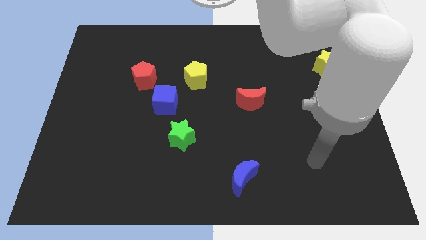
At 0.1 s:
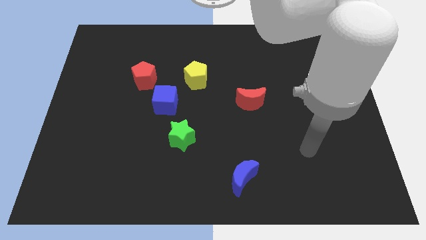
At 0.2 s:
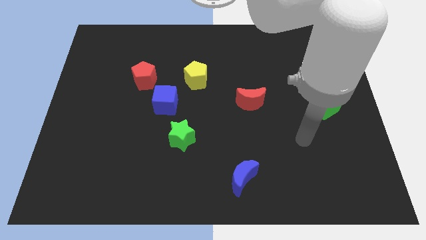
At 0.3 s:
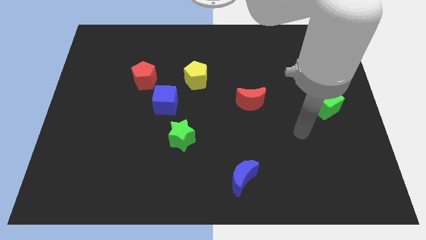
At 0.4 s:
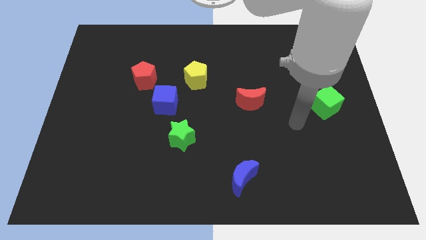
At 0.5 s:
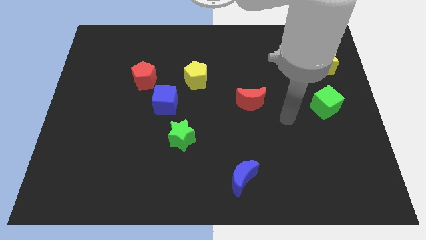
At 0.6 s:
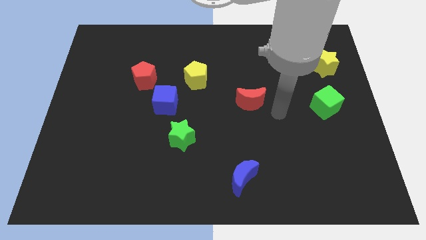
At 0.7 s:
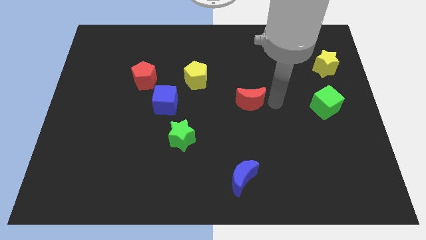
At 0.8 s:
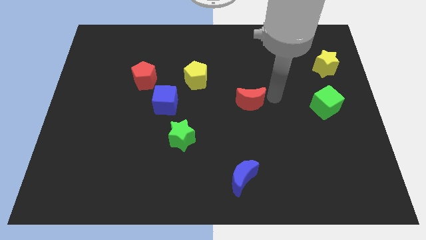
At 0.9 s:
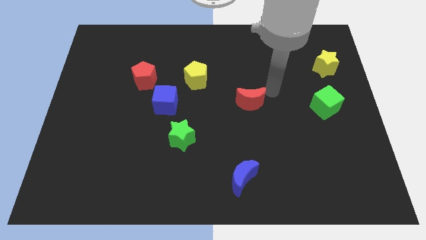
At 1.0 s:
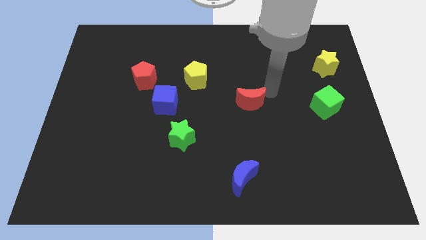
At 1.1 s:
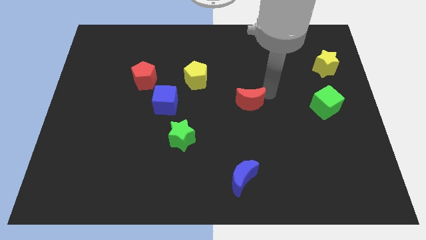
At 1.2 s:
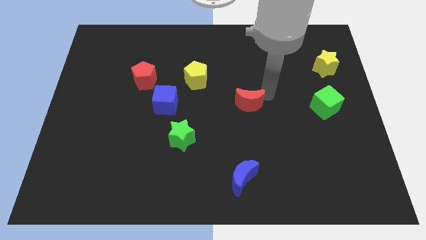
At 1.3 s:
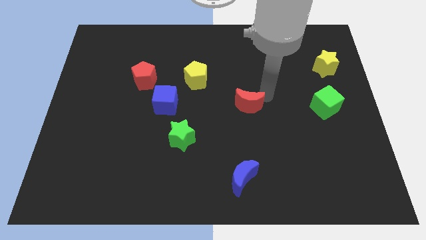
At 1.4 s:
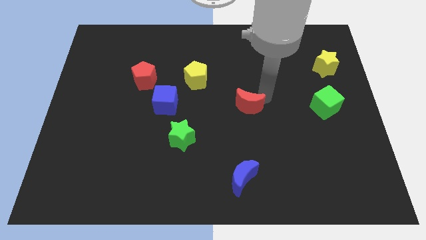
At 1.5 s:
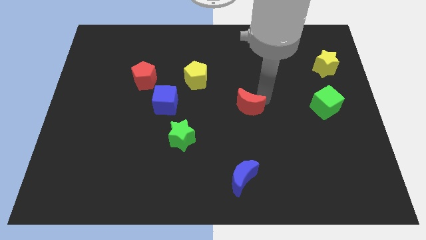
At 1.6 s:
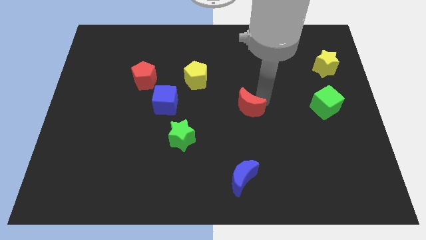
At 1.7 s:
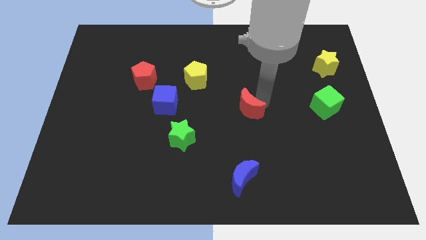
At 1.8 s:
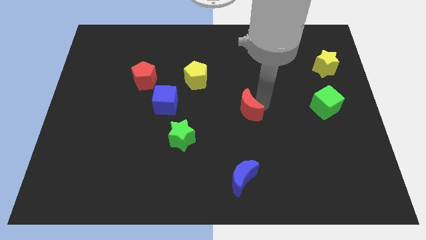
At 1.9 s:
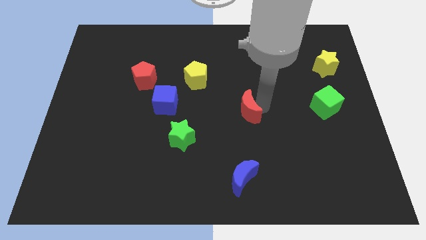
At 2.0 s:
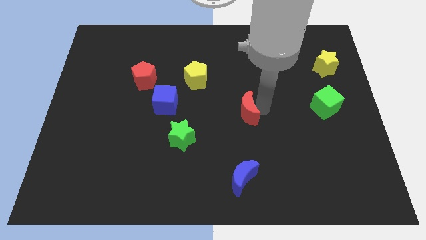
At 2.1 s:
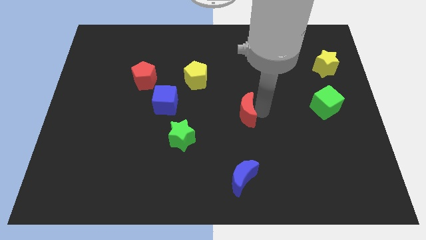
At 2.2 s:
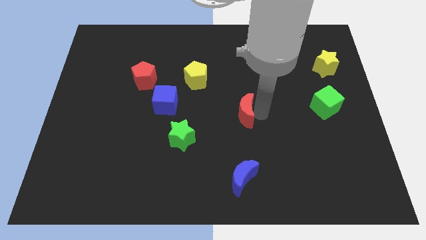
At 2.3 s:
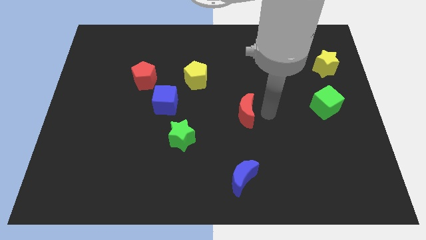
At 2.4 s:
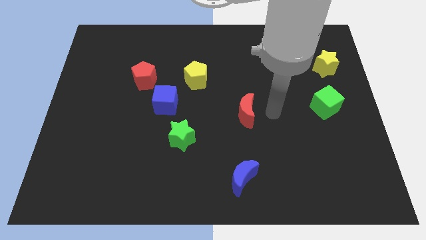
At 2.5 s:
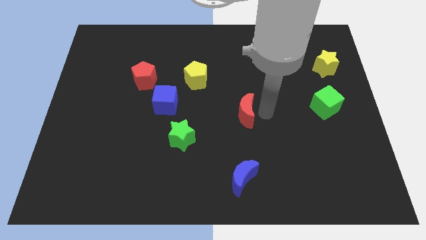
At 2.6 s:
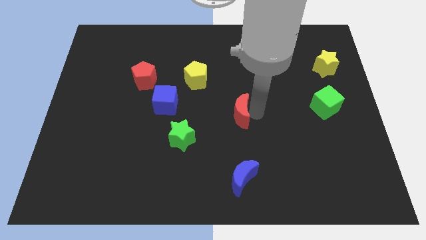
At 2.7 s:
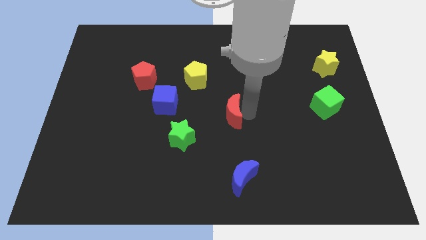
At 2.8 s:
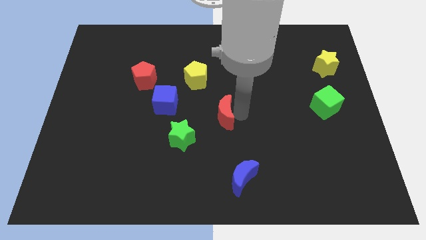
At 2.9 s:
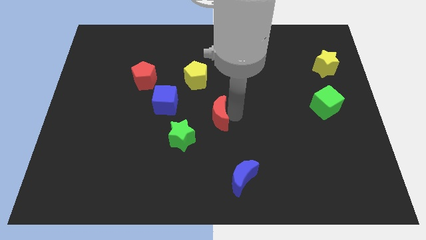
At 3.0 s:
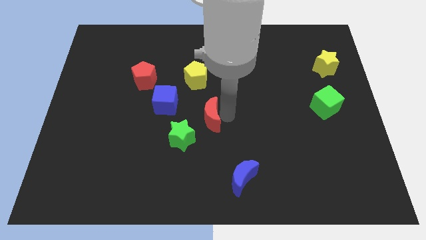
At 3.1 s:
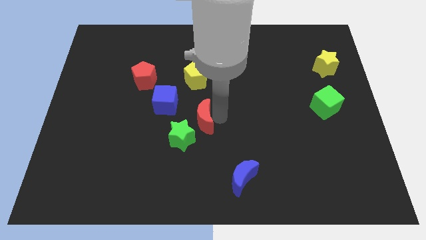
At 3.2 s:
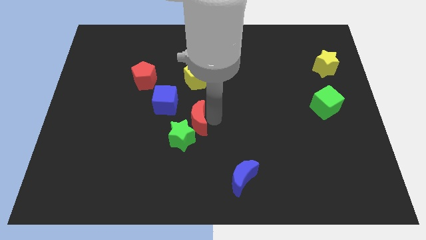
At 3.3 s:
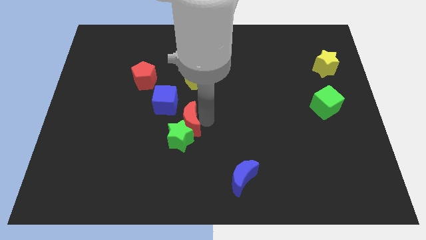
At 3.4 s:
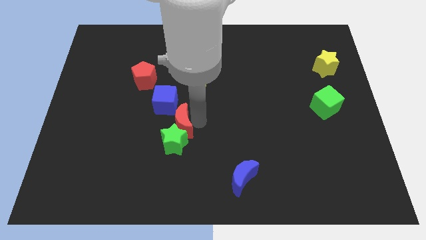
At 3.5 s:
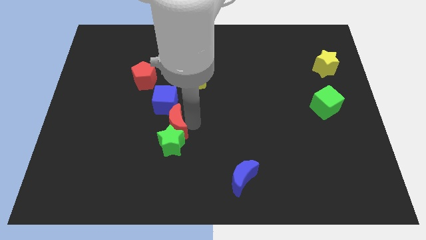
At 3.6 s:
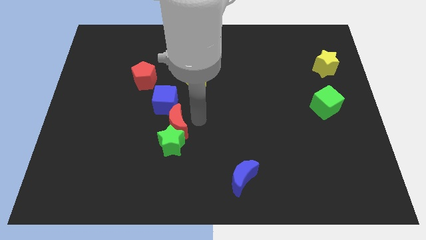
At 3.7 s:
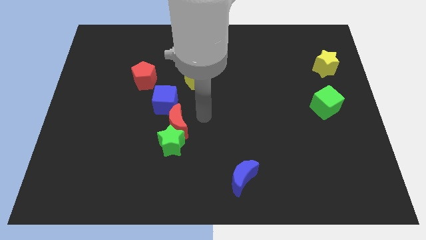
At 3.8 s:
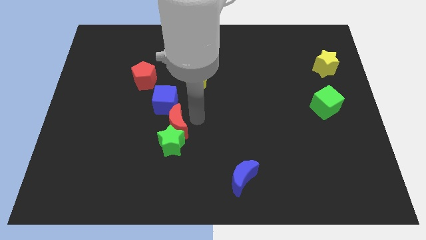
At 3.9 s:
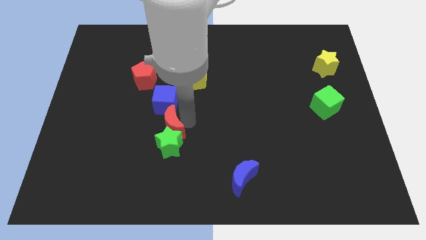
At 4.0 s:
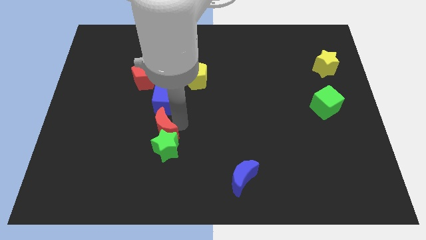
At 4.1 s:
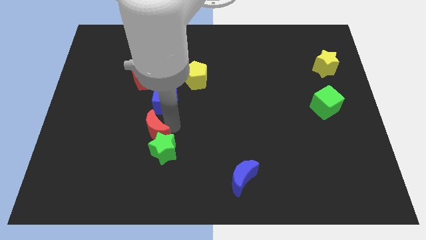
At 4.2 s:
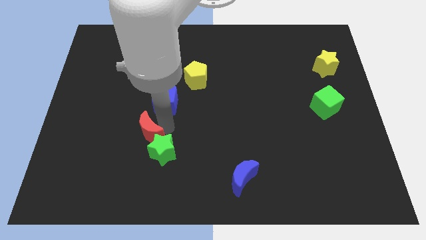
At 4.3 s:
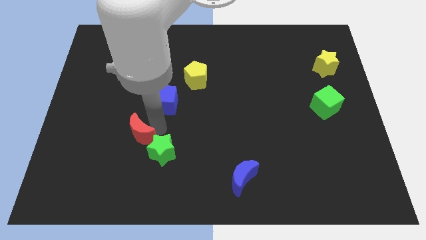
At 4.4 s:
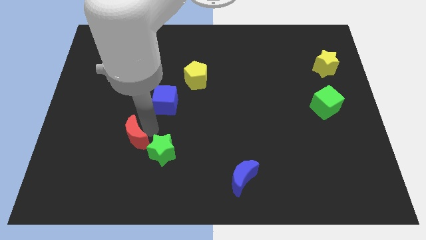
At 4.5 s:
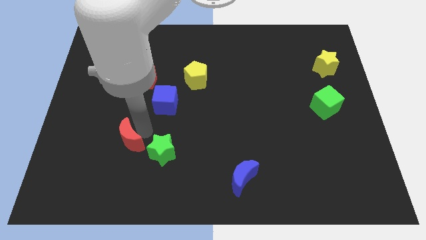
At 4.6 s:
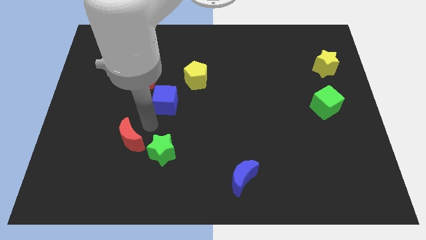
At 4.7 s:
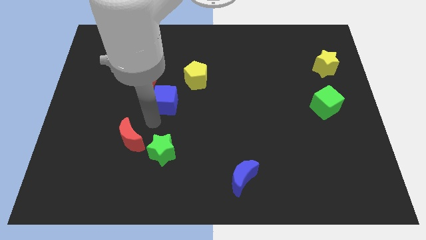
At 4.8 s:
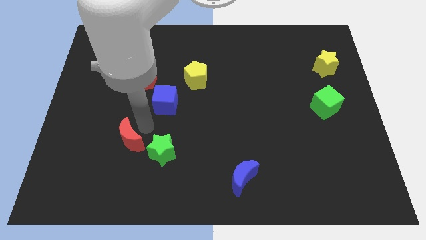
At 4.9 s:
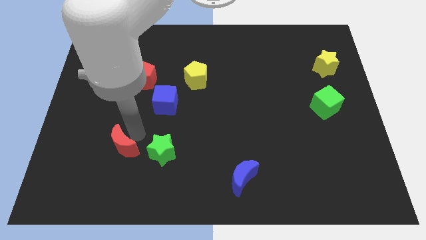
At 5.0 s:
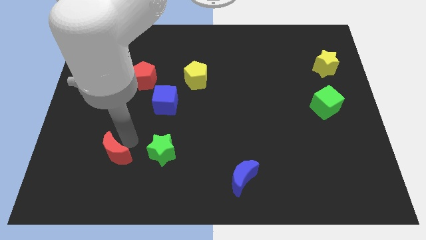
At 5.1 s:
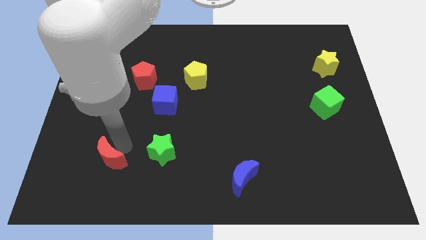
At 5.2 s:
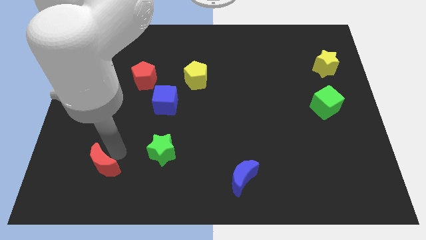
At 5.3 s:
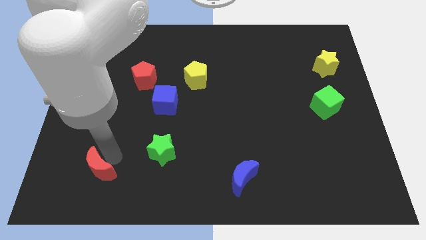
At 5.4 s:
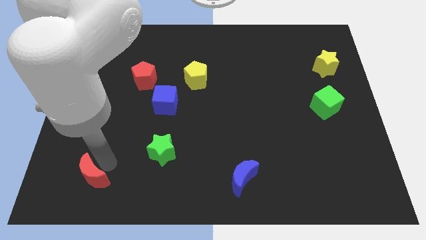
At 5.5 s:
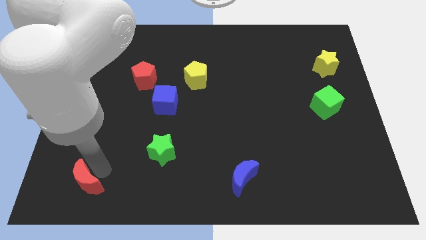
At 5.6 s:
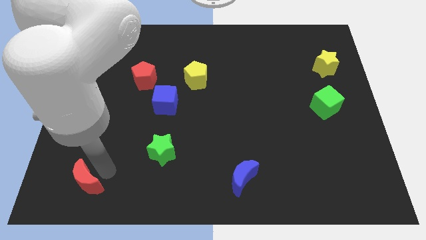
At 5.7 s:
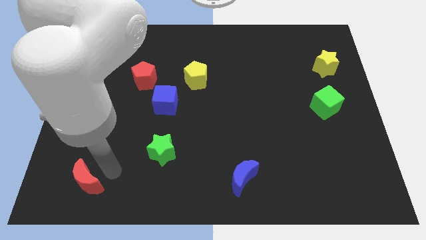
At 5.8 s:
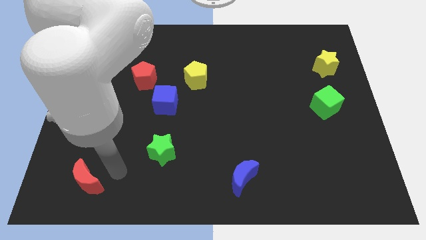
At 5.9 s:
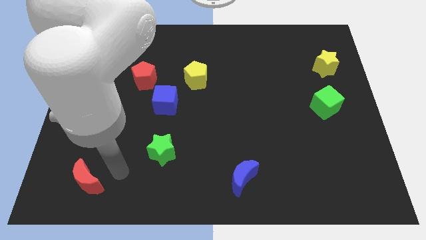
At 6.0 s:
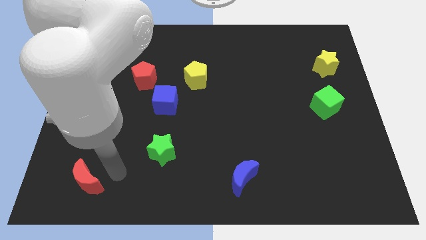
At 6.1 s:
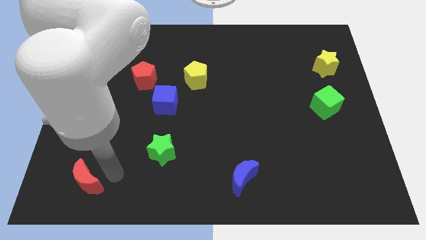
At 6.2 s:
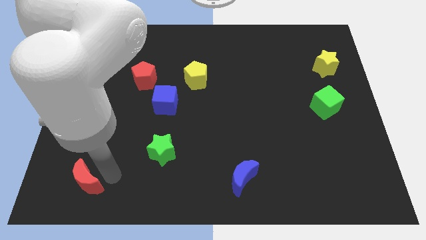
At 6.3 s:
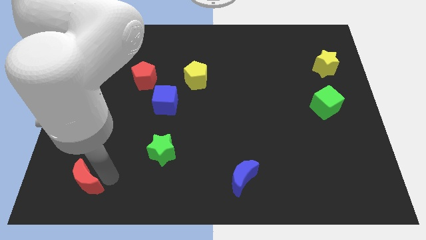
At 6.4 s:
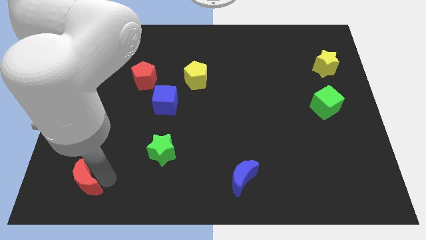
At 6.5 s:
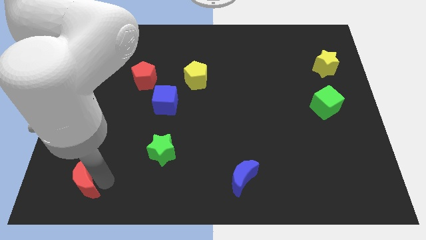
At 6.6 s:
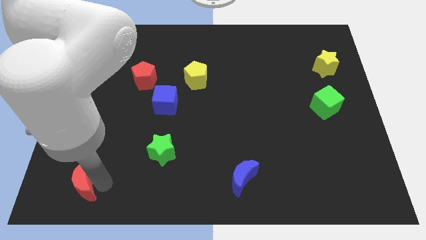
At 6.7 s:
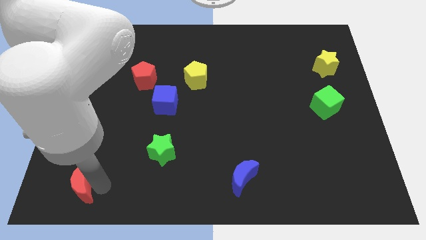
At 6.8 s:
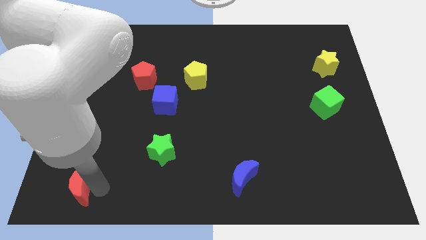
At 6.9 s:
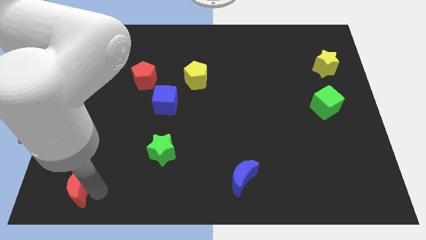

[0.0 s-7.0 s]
move the red moon to the lower left corner

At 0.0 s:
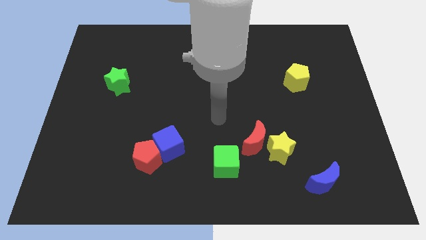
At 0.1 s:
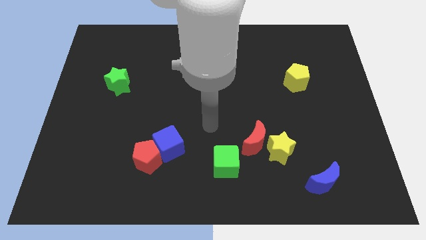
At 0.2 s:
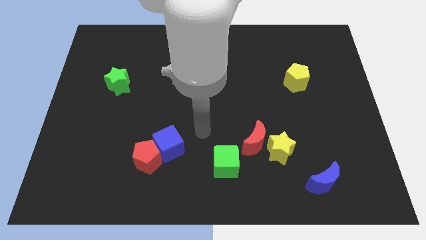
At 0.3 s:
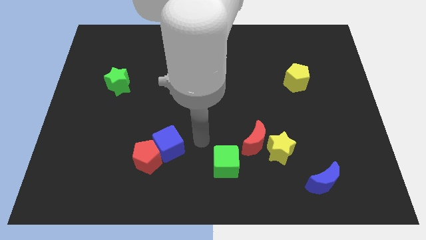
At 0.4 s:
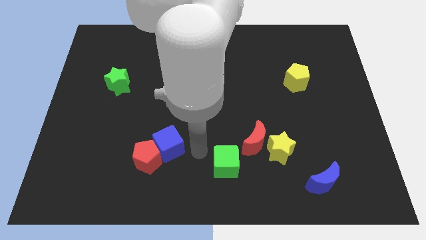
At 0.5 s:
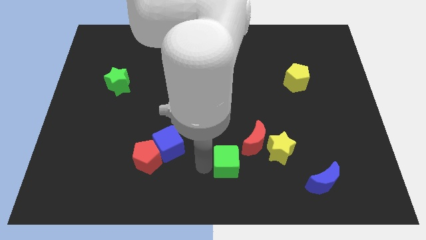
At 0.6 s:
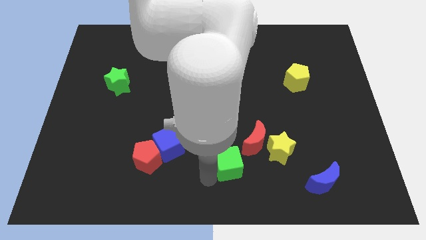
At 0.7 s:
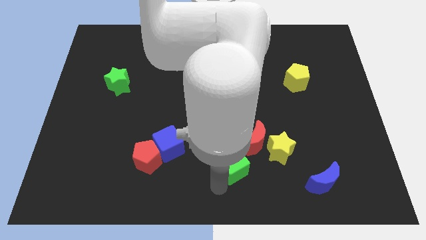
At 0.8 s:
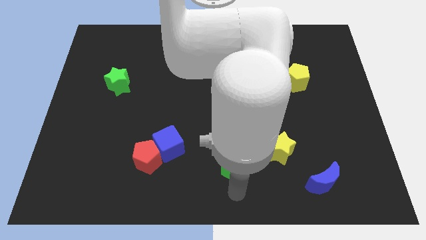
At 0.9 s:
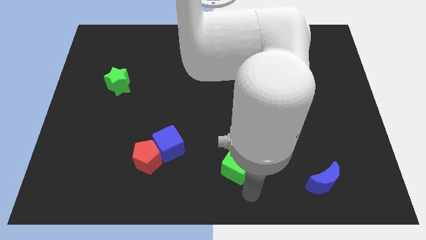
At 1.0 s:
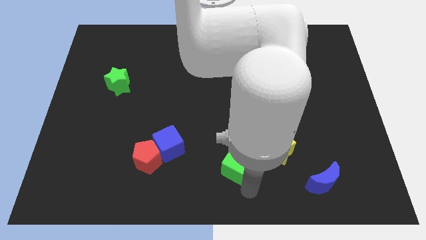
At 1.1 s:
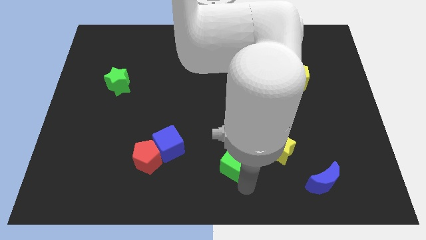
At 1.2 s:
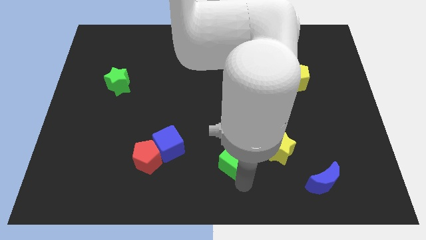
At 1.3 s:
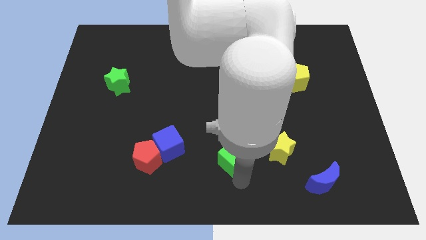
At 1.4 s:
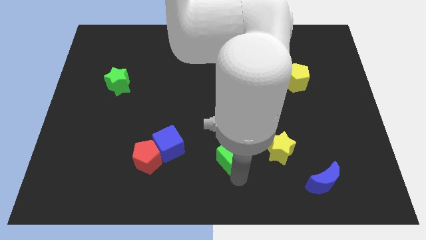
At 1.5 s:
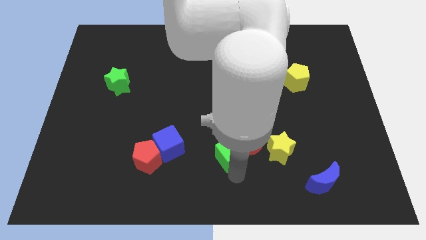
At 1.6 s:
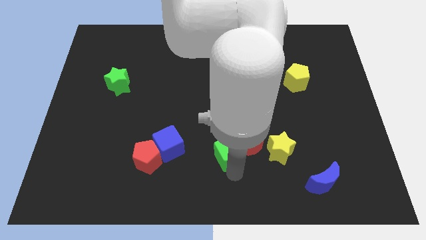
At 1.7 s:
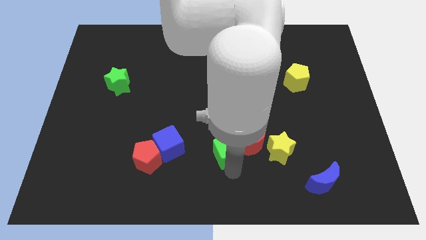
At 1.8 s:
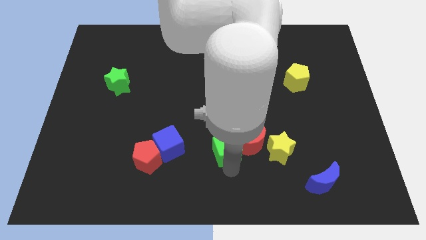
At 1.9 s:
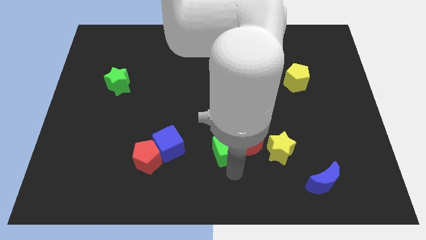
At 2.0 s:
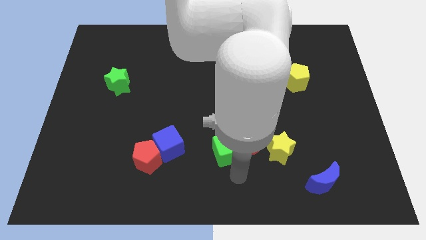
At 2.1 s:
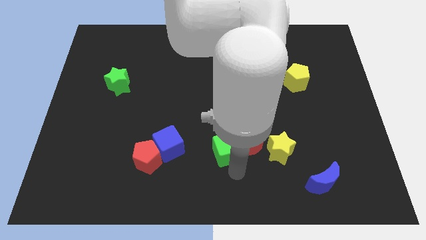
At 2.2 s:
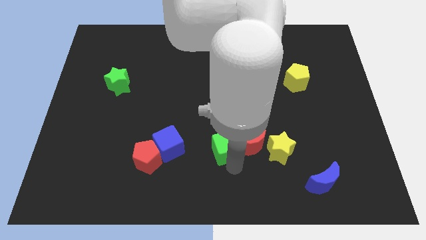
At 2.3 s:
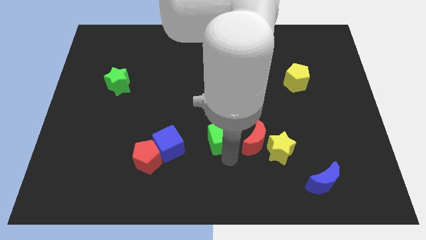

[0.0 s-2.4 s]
slide the green cube to the middle of the board
